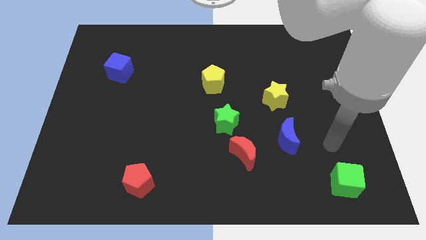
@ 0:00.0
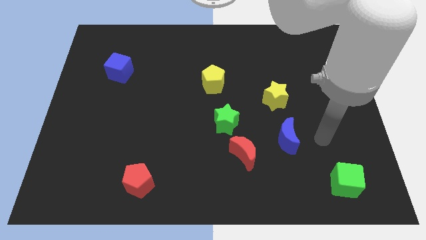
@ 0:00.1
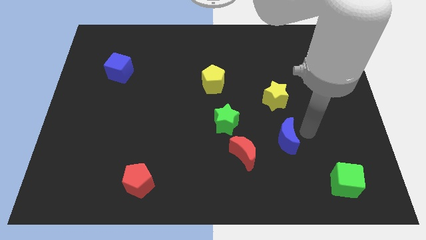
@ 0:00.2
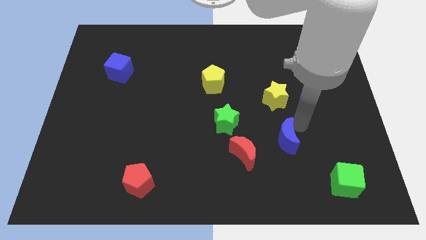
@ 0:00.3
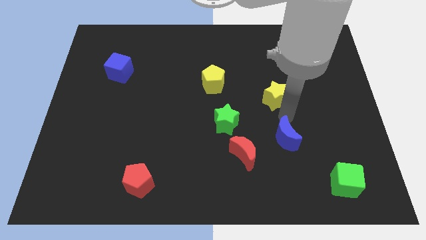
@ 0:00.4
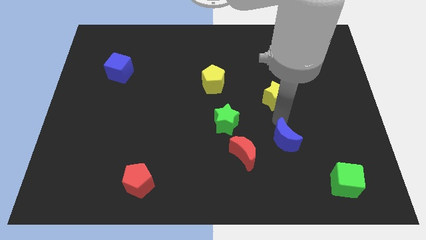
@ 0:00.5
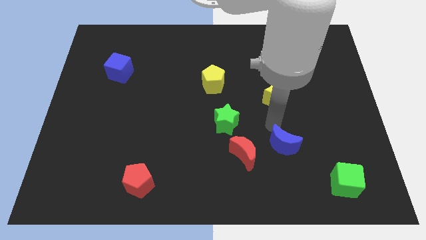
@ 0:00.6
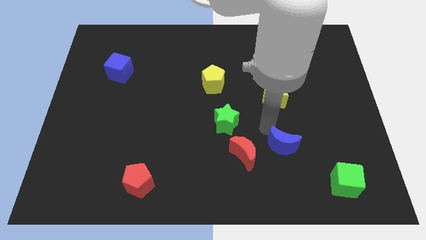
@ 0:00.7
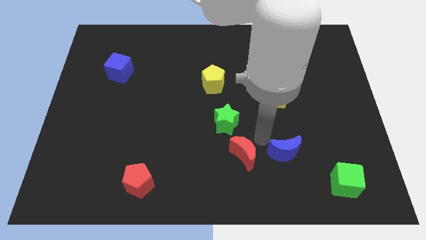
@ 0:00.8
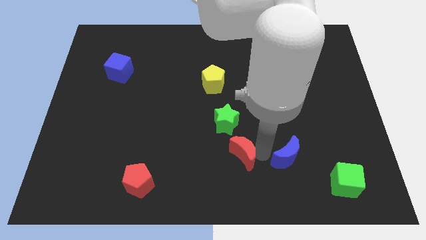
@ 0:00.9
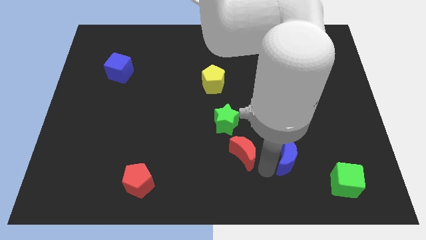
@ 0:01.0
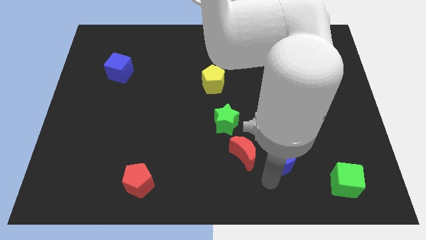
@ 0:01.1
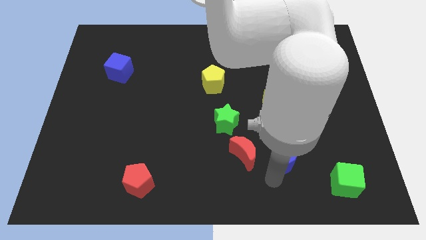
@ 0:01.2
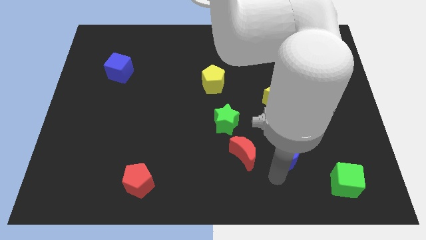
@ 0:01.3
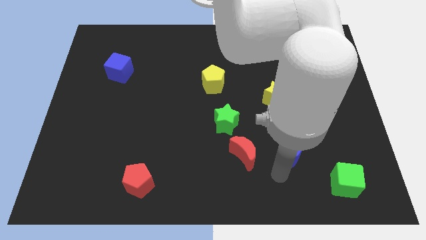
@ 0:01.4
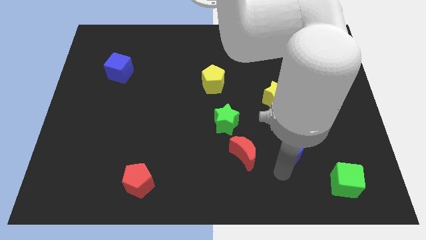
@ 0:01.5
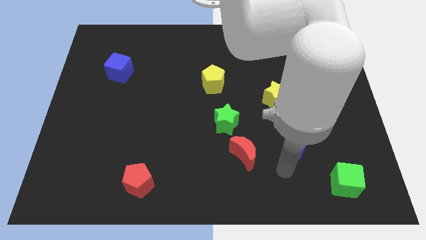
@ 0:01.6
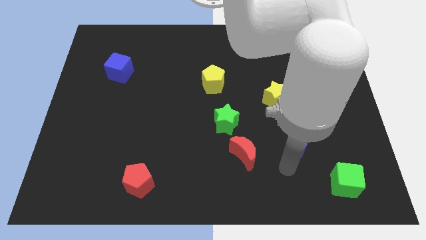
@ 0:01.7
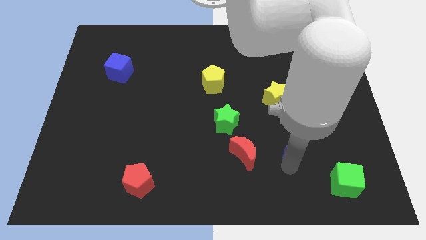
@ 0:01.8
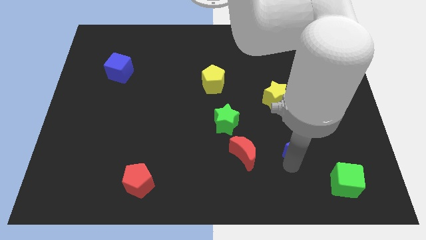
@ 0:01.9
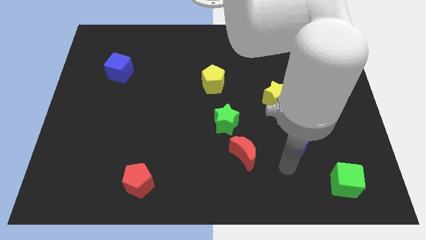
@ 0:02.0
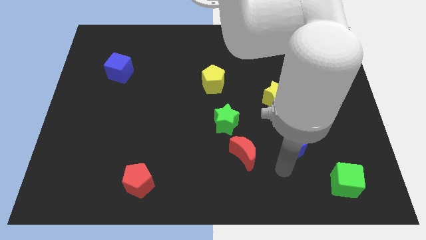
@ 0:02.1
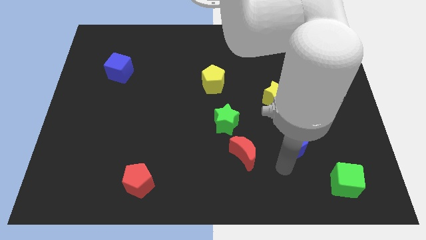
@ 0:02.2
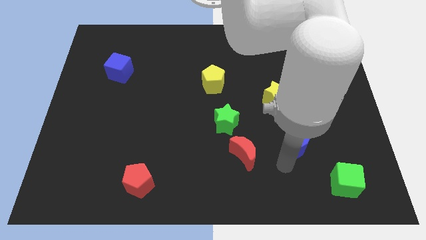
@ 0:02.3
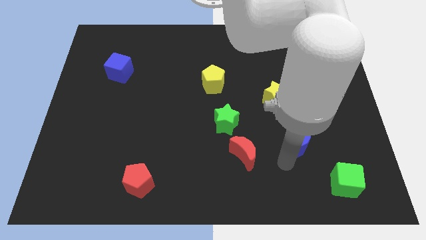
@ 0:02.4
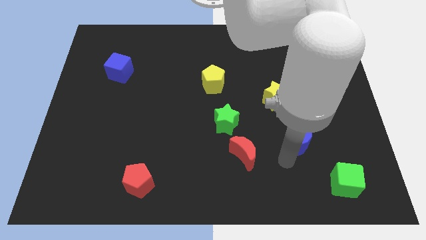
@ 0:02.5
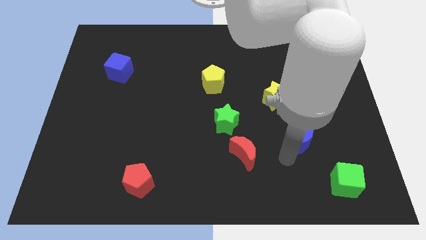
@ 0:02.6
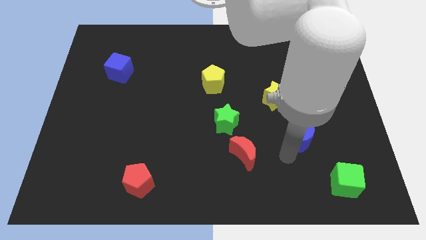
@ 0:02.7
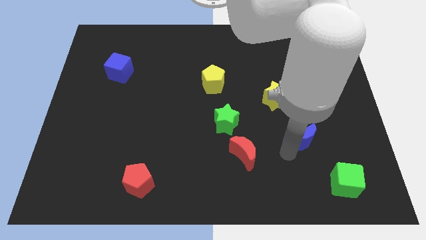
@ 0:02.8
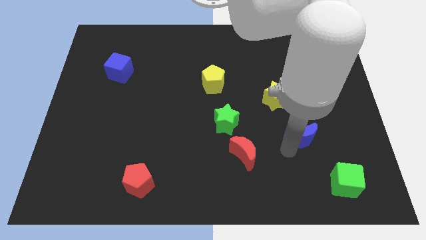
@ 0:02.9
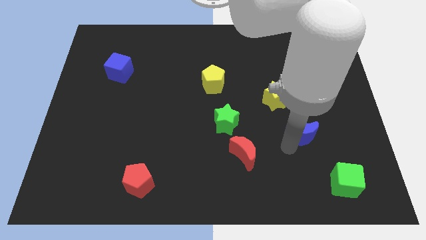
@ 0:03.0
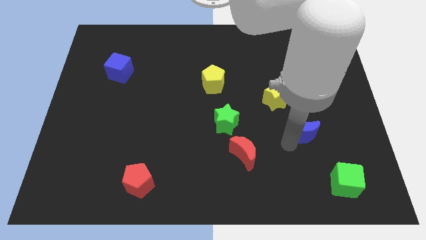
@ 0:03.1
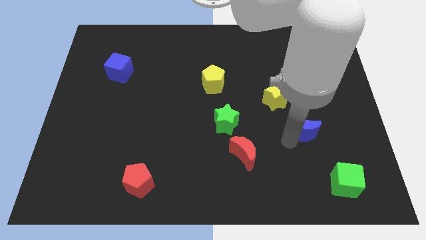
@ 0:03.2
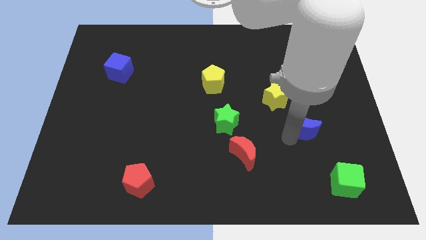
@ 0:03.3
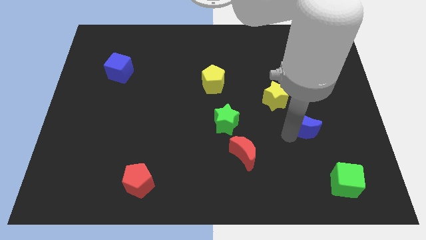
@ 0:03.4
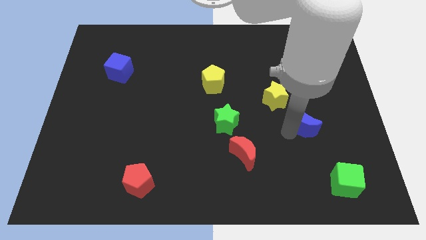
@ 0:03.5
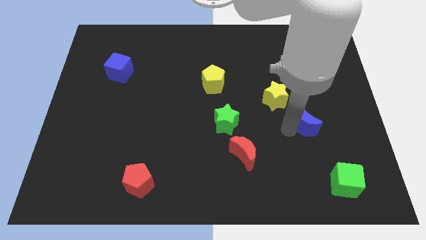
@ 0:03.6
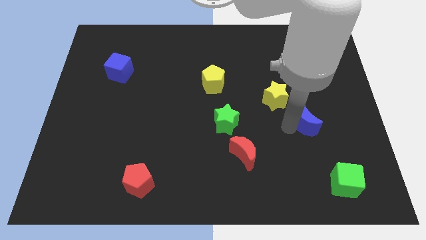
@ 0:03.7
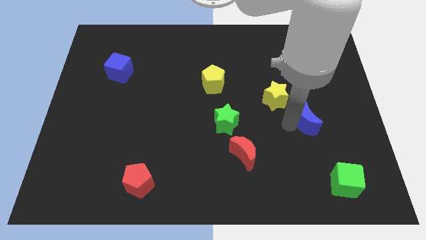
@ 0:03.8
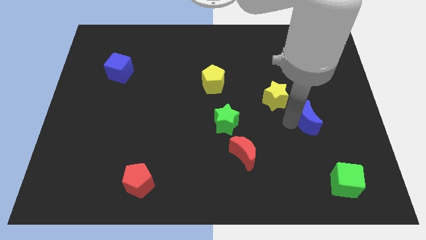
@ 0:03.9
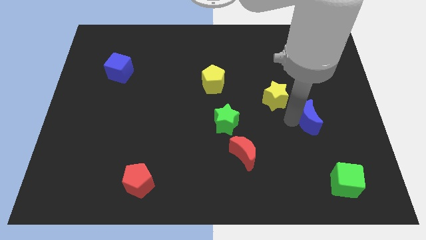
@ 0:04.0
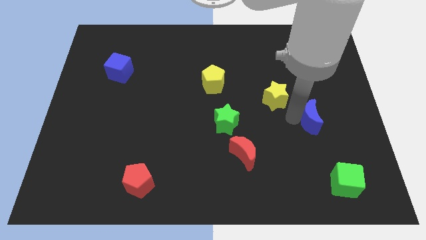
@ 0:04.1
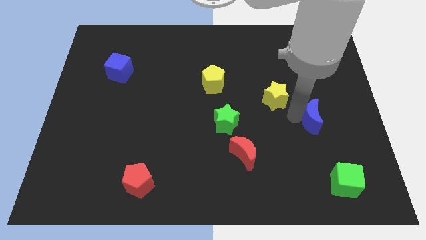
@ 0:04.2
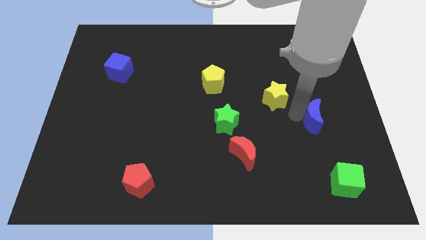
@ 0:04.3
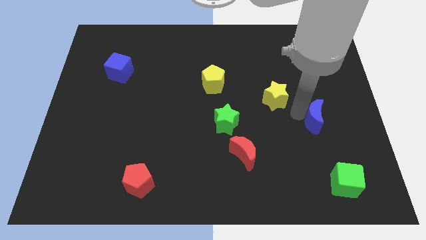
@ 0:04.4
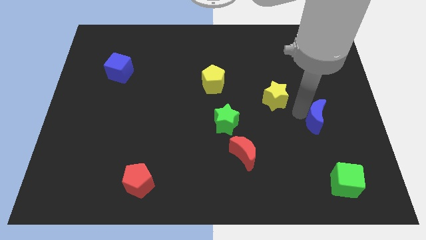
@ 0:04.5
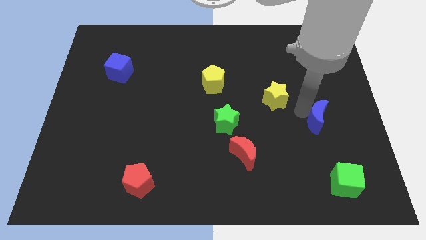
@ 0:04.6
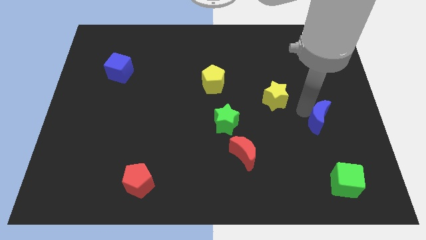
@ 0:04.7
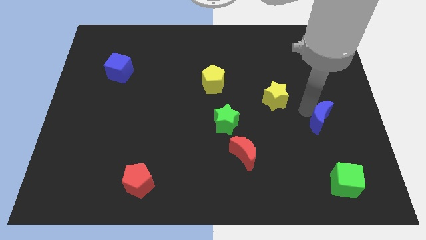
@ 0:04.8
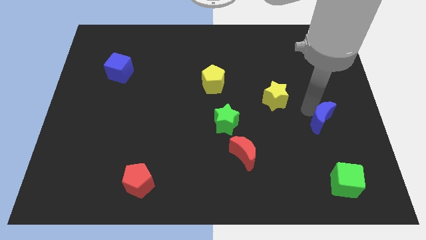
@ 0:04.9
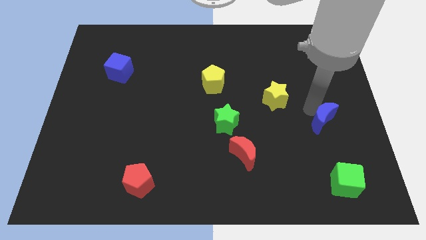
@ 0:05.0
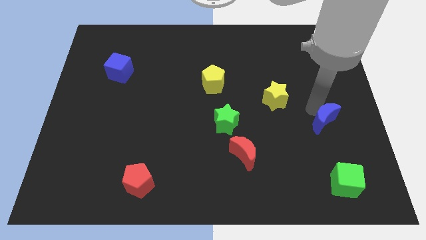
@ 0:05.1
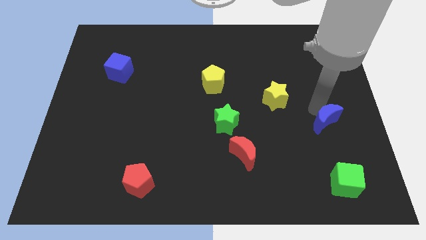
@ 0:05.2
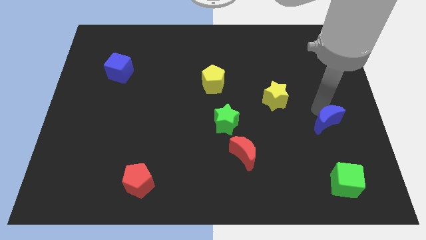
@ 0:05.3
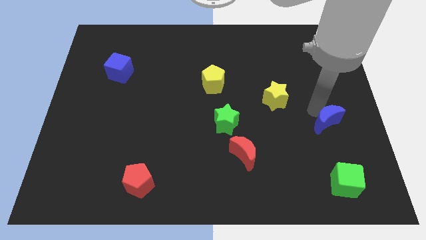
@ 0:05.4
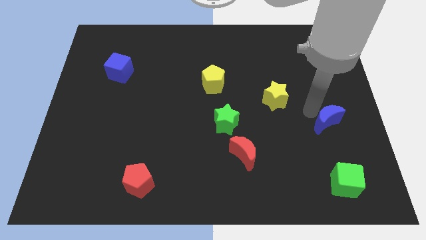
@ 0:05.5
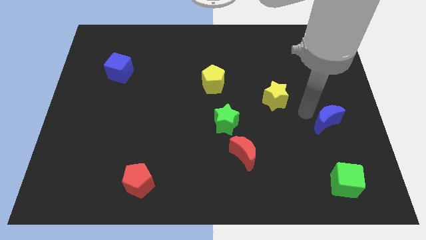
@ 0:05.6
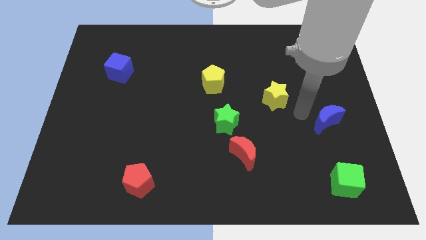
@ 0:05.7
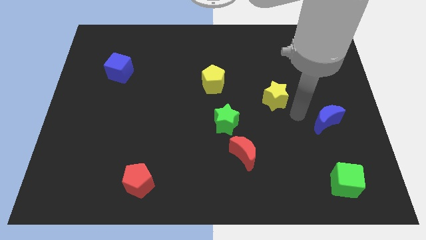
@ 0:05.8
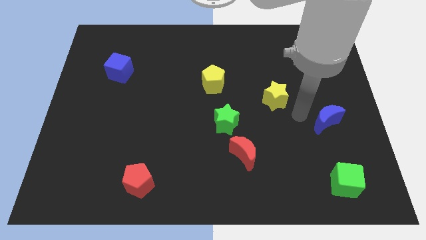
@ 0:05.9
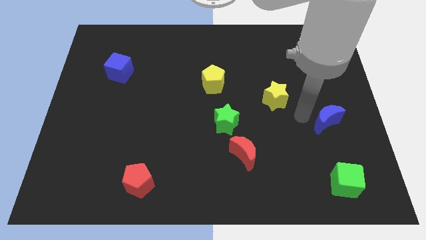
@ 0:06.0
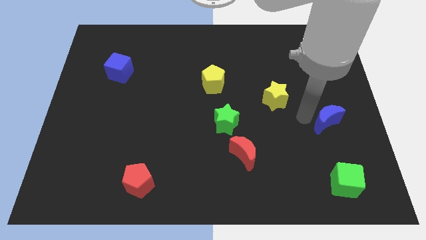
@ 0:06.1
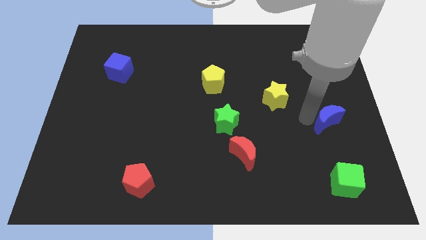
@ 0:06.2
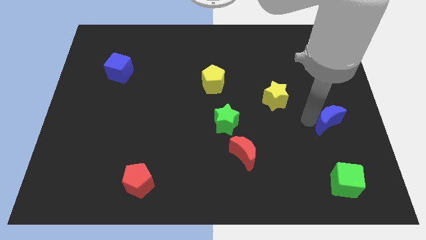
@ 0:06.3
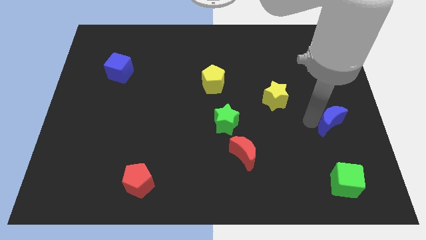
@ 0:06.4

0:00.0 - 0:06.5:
push the blue moon to the right side
